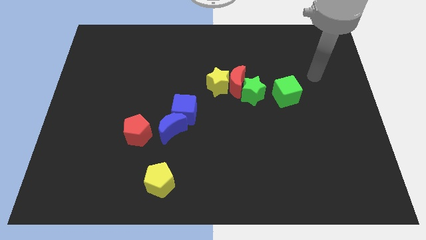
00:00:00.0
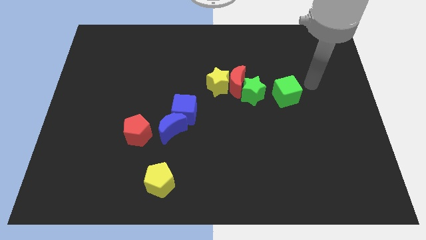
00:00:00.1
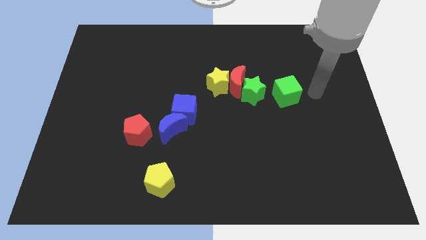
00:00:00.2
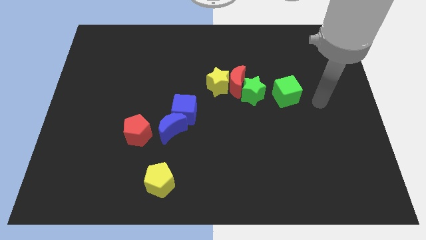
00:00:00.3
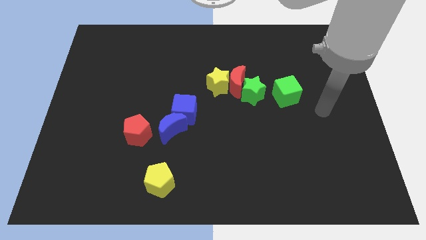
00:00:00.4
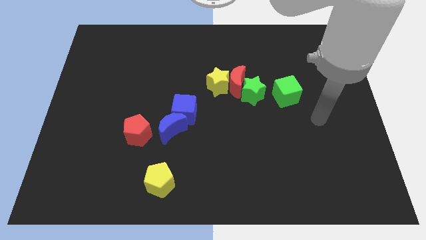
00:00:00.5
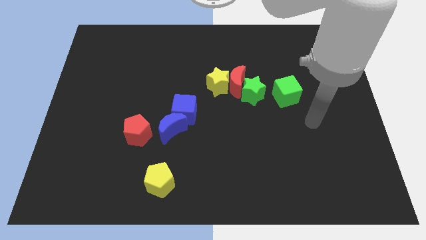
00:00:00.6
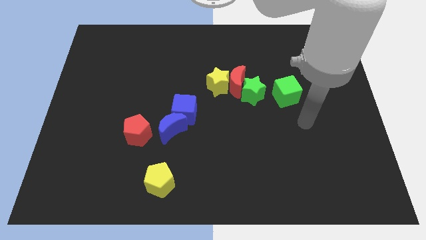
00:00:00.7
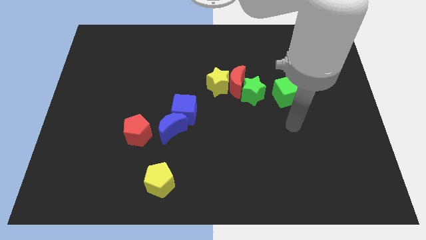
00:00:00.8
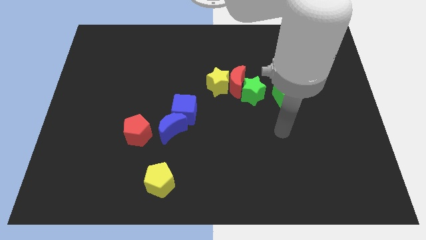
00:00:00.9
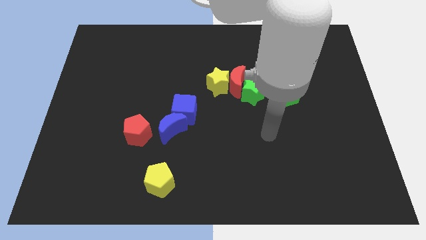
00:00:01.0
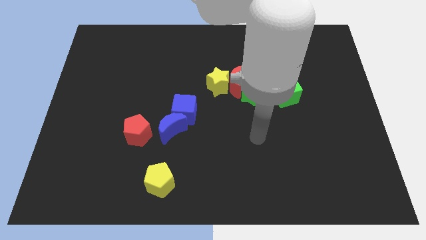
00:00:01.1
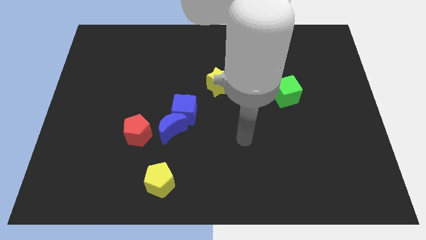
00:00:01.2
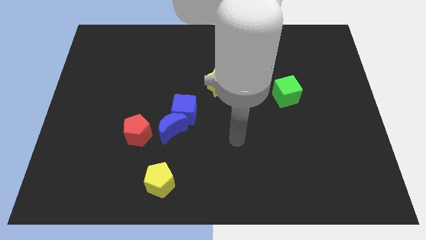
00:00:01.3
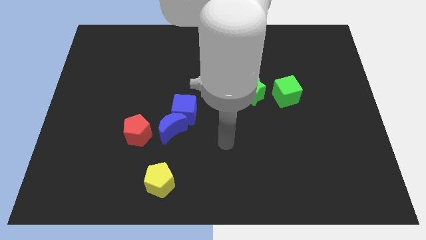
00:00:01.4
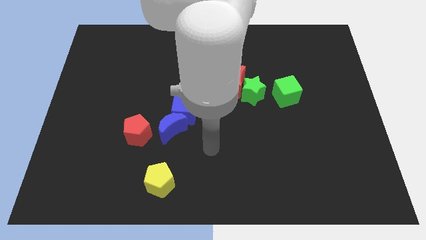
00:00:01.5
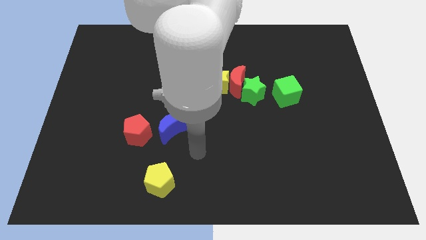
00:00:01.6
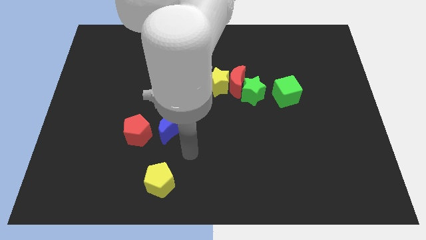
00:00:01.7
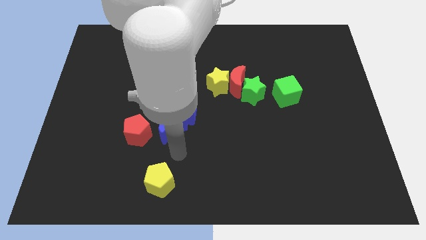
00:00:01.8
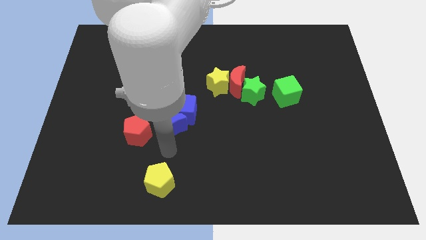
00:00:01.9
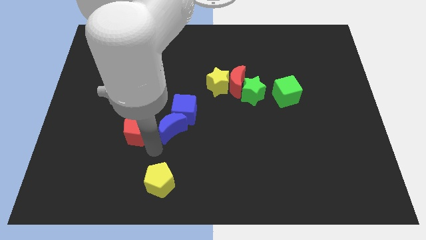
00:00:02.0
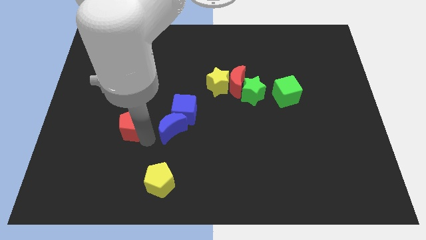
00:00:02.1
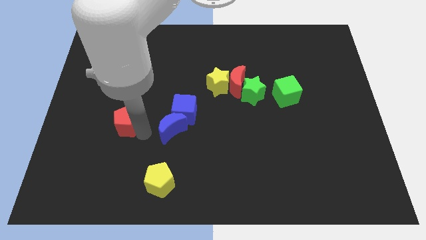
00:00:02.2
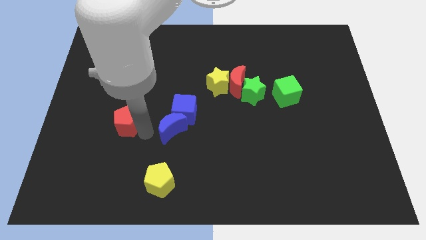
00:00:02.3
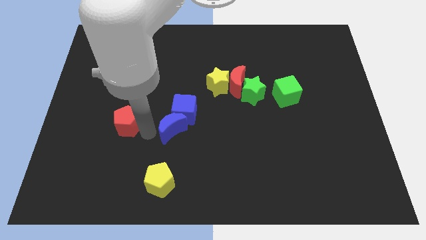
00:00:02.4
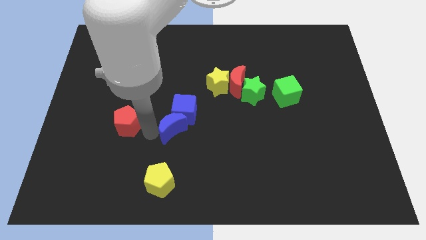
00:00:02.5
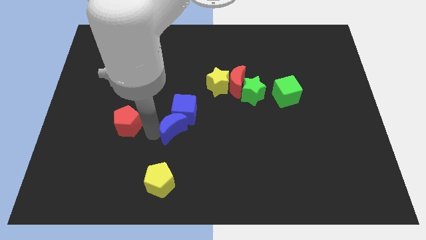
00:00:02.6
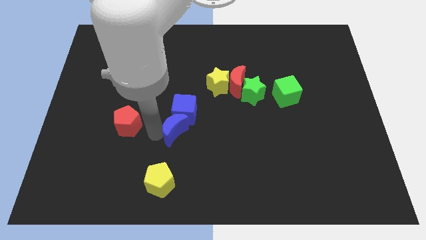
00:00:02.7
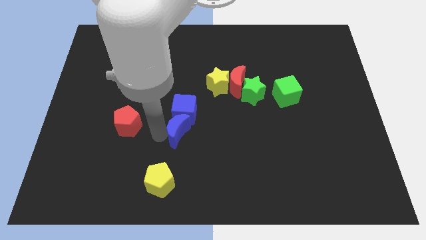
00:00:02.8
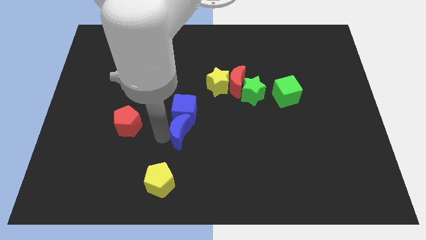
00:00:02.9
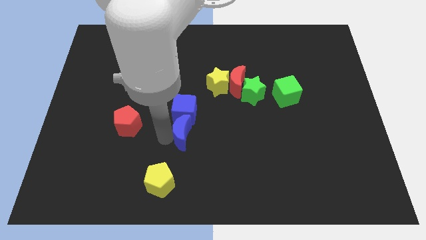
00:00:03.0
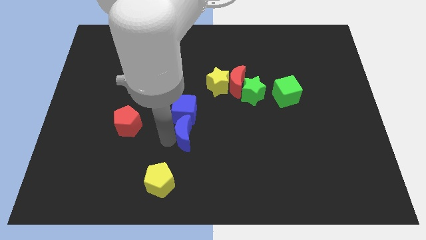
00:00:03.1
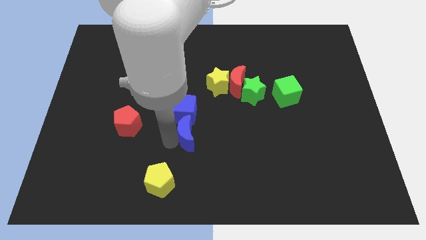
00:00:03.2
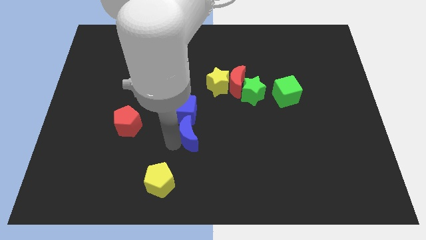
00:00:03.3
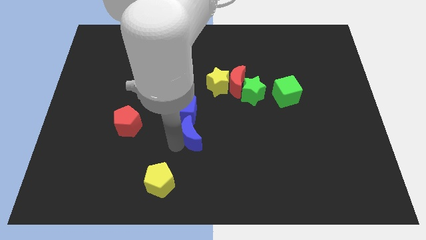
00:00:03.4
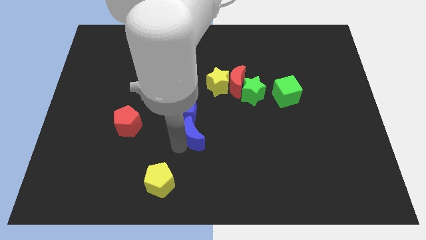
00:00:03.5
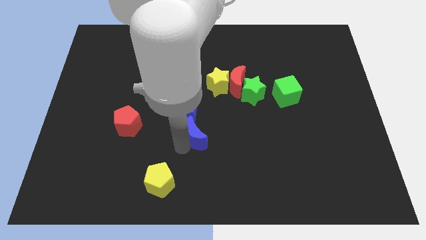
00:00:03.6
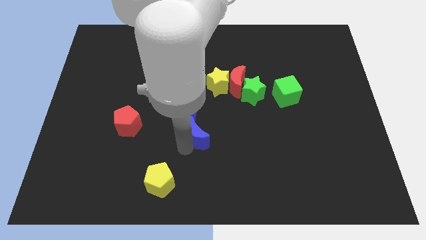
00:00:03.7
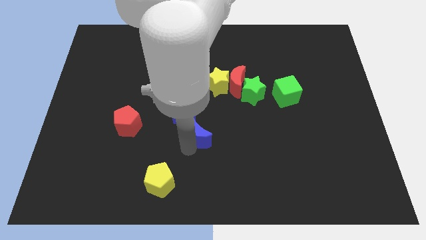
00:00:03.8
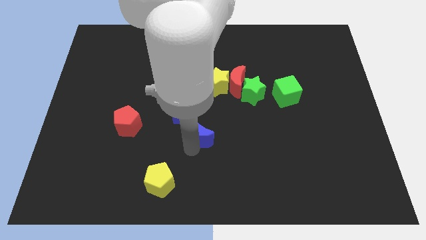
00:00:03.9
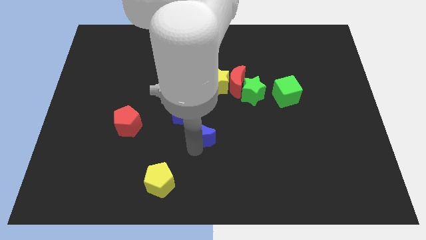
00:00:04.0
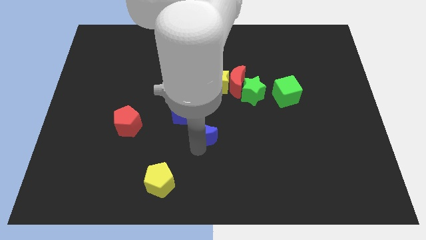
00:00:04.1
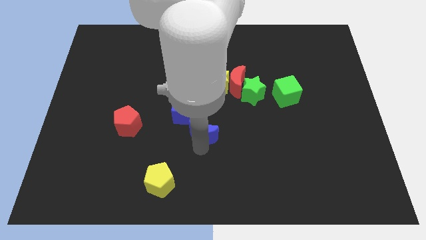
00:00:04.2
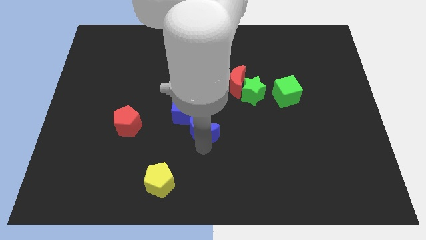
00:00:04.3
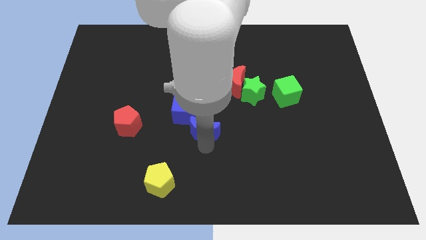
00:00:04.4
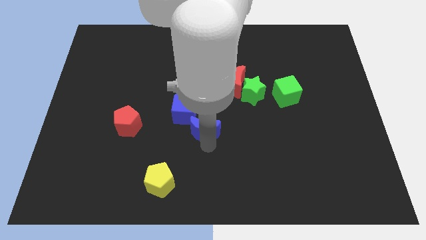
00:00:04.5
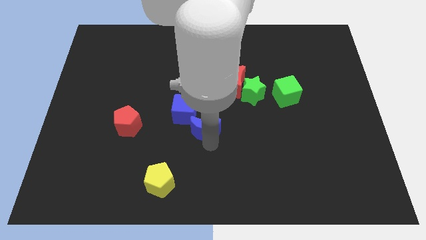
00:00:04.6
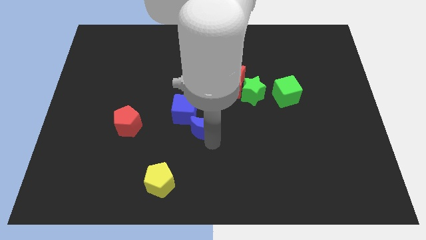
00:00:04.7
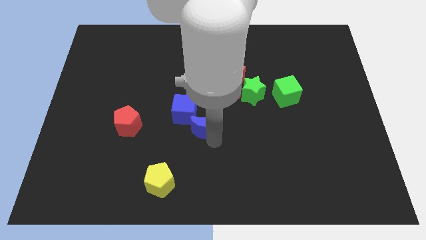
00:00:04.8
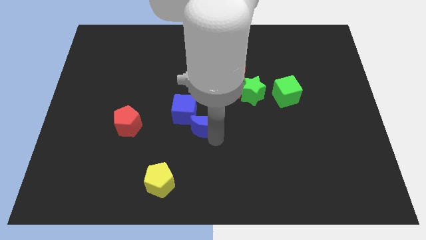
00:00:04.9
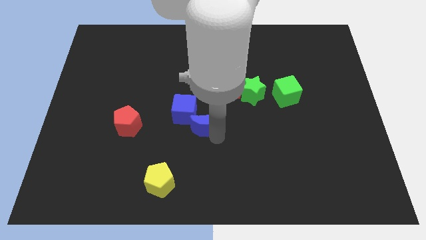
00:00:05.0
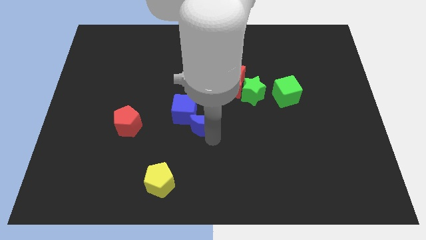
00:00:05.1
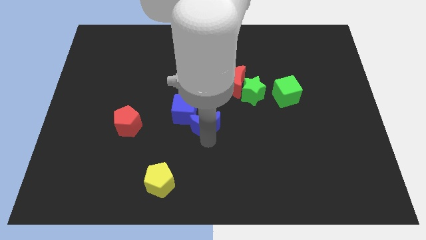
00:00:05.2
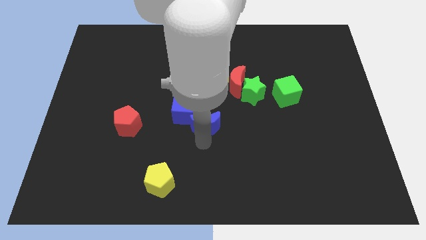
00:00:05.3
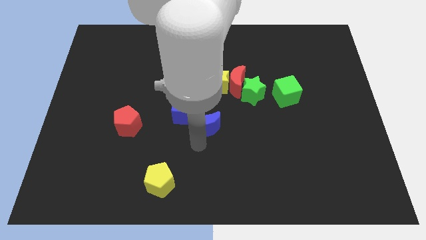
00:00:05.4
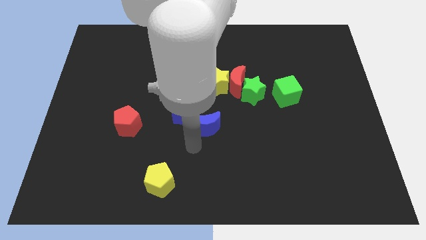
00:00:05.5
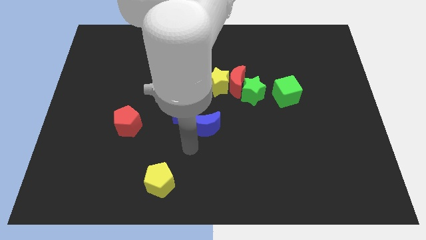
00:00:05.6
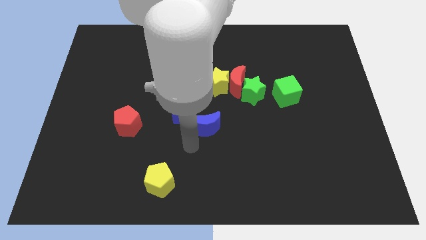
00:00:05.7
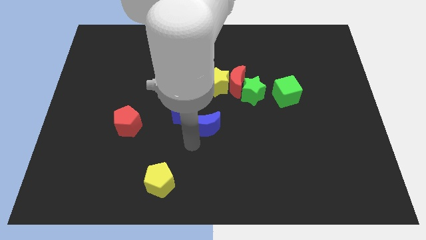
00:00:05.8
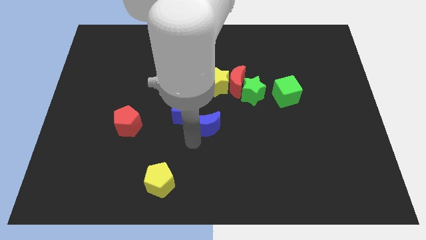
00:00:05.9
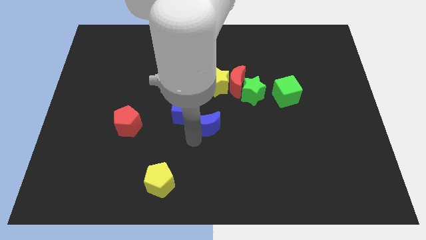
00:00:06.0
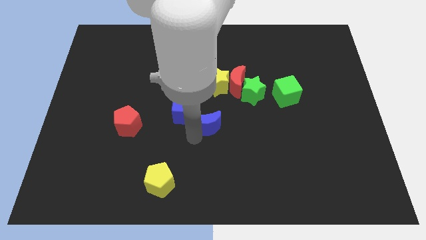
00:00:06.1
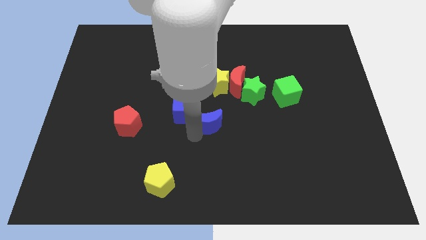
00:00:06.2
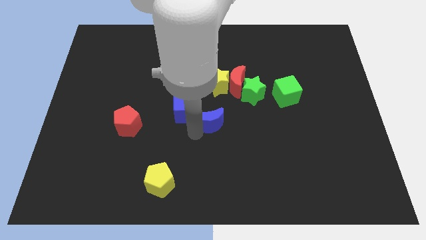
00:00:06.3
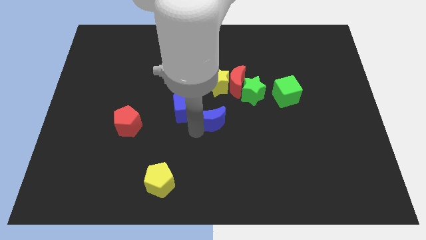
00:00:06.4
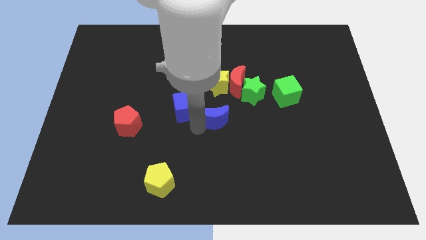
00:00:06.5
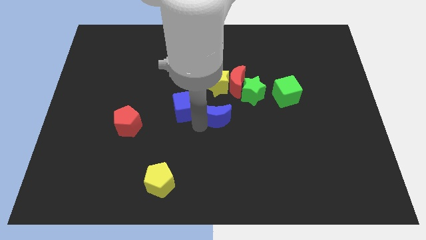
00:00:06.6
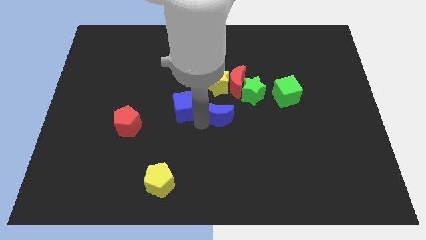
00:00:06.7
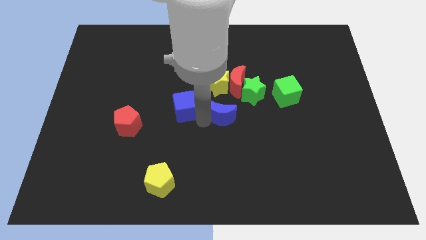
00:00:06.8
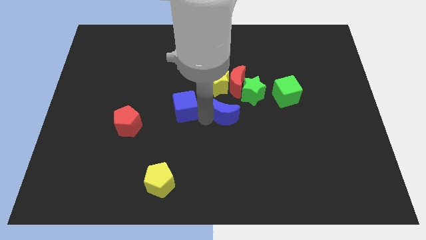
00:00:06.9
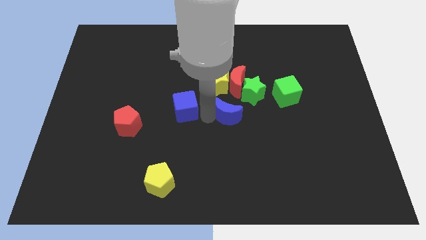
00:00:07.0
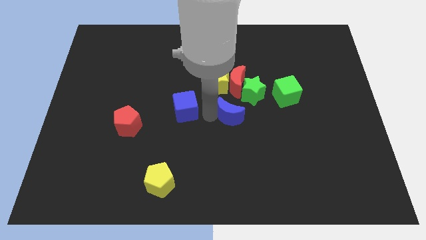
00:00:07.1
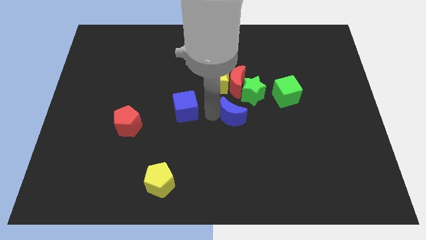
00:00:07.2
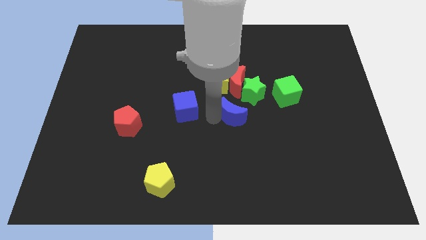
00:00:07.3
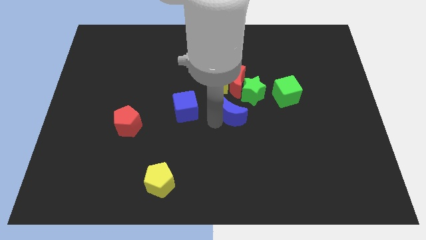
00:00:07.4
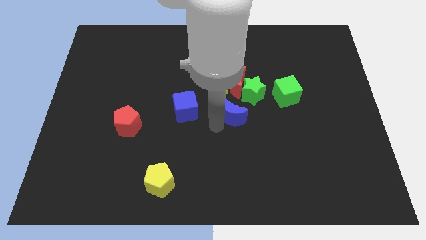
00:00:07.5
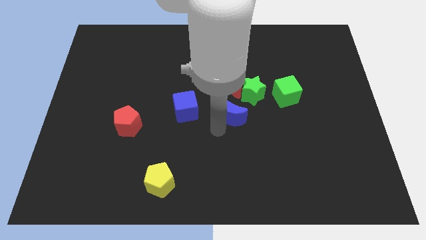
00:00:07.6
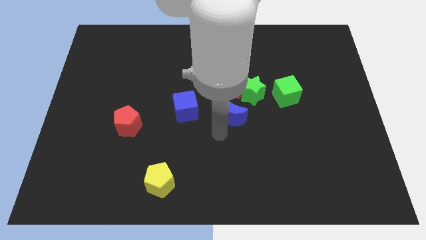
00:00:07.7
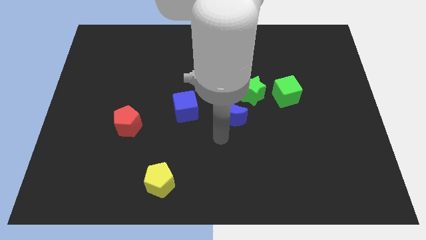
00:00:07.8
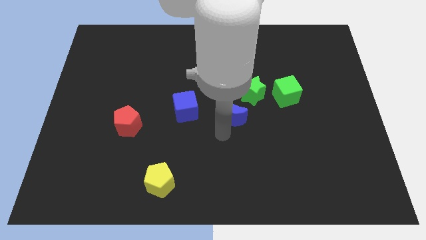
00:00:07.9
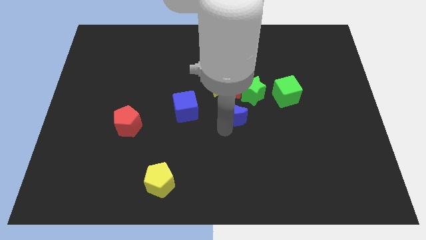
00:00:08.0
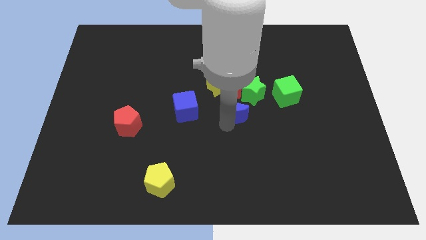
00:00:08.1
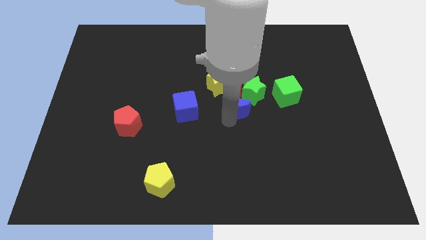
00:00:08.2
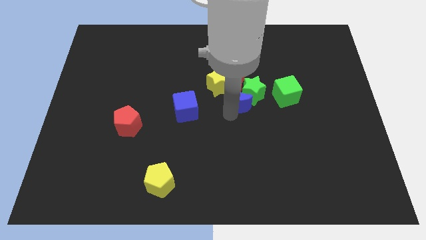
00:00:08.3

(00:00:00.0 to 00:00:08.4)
slide the blue moon close to the green star
